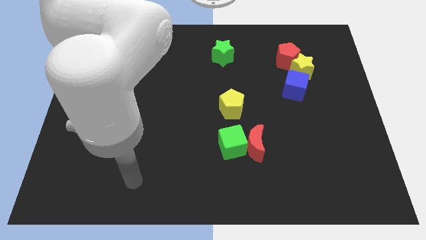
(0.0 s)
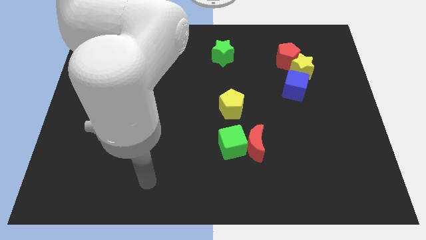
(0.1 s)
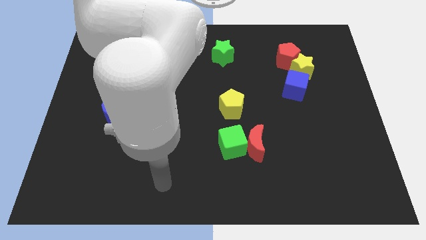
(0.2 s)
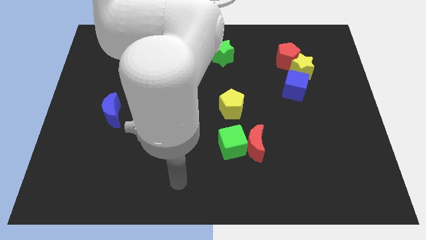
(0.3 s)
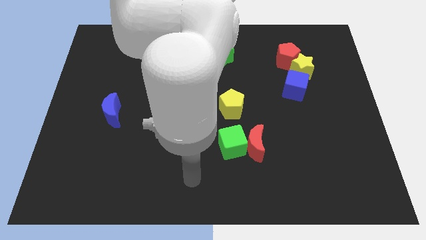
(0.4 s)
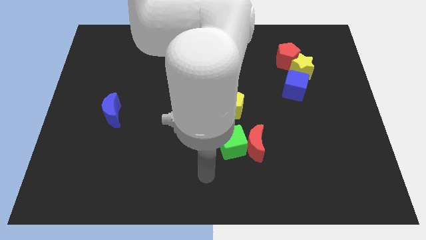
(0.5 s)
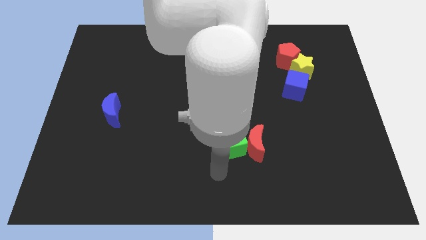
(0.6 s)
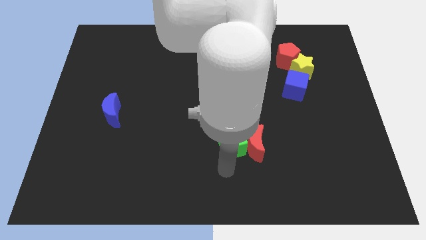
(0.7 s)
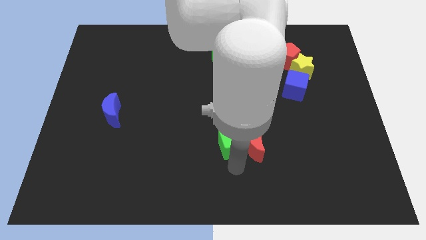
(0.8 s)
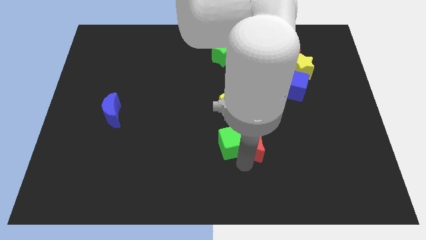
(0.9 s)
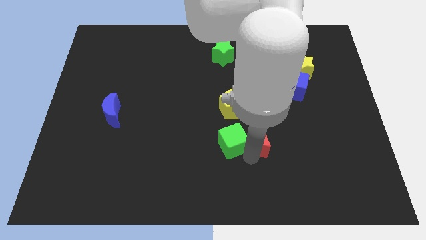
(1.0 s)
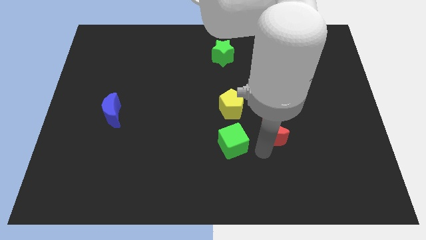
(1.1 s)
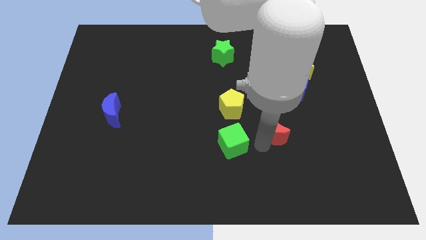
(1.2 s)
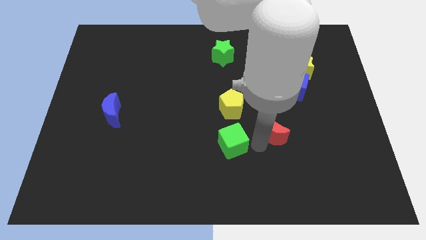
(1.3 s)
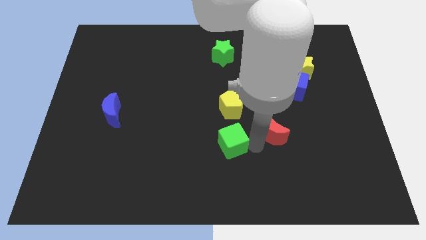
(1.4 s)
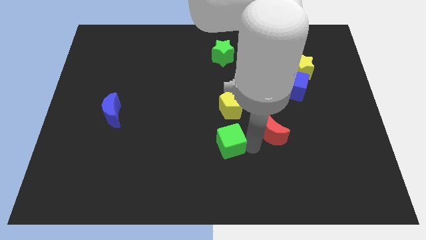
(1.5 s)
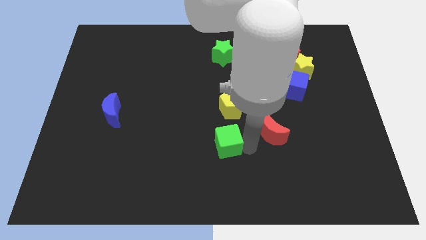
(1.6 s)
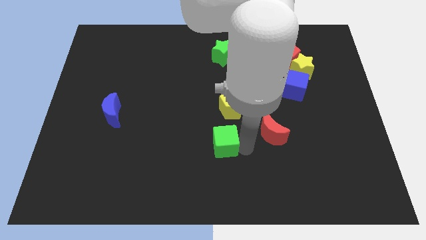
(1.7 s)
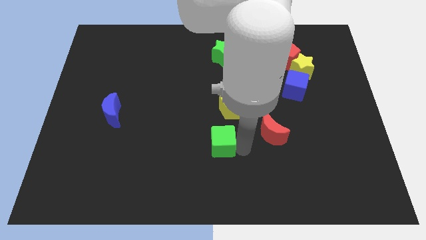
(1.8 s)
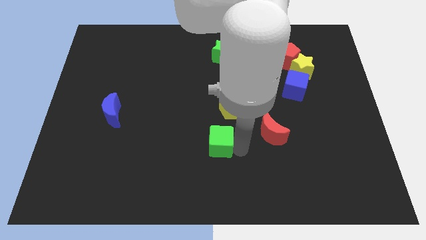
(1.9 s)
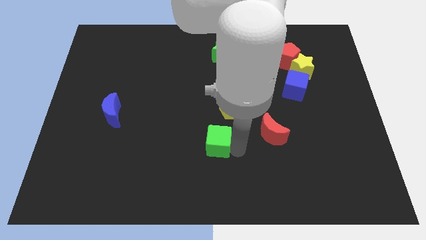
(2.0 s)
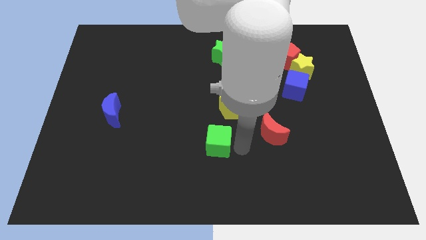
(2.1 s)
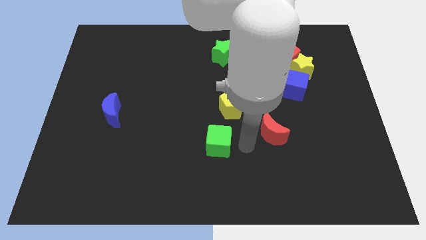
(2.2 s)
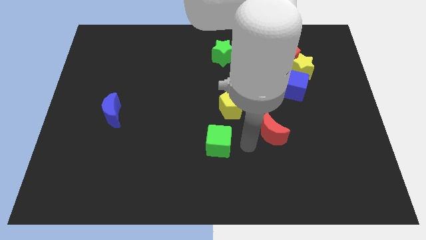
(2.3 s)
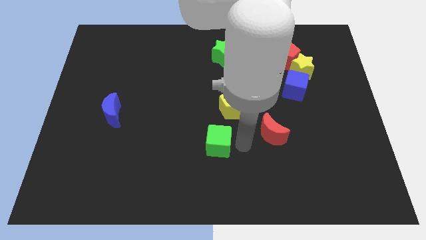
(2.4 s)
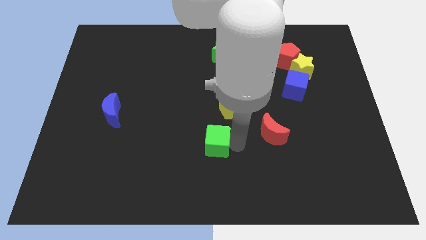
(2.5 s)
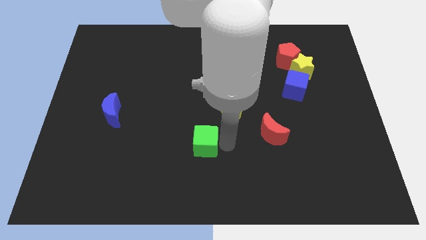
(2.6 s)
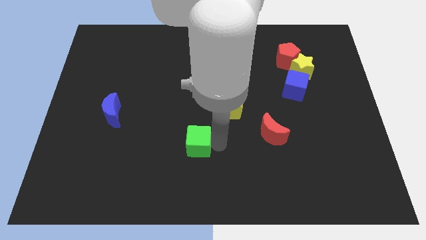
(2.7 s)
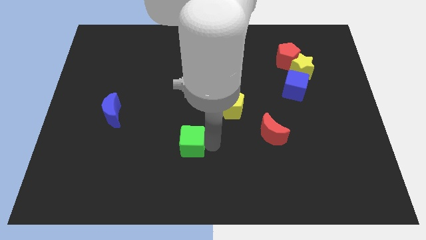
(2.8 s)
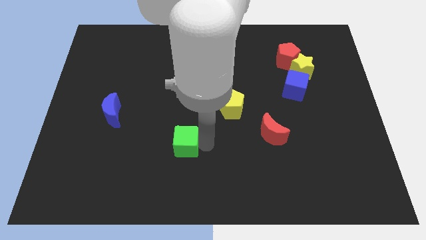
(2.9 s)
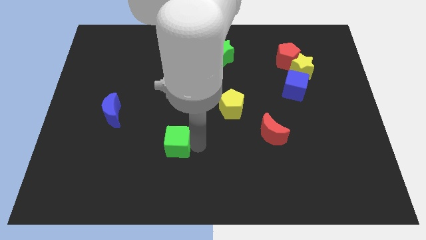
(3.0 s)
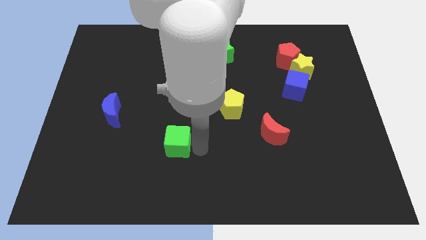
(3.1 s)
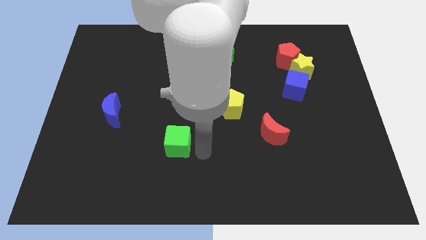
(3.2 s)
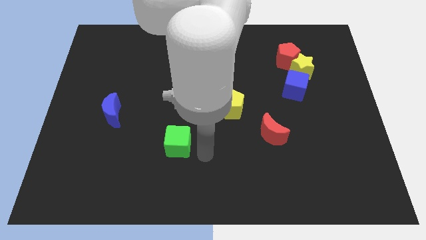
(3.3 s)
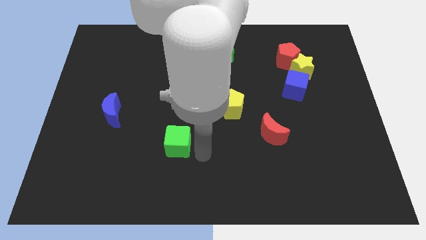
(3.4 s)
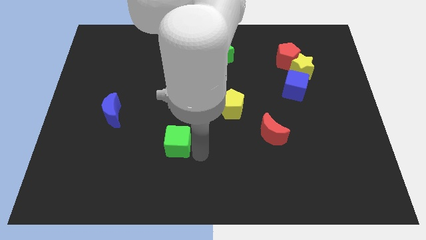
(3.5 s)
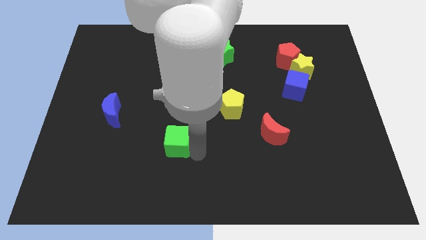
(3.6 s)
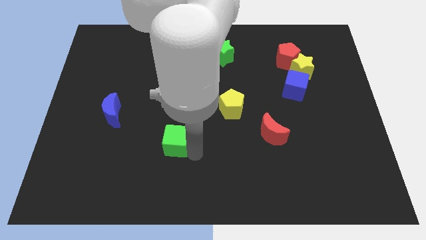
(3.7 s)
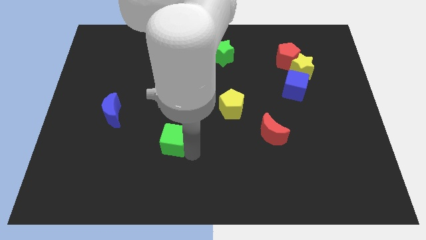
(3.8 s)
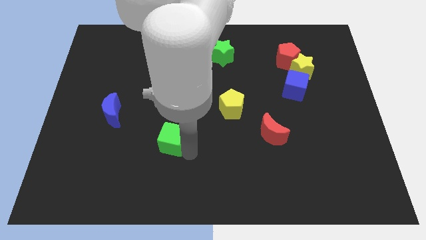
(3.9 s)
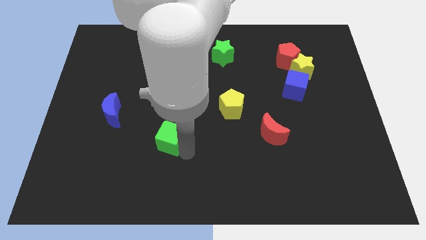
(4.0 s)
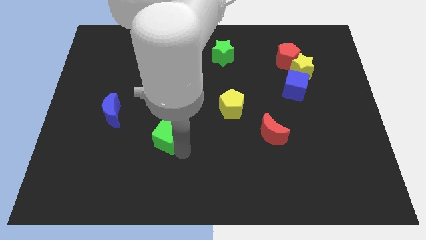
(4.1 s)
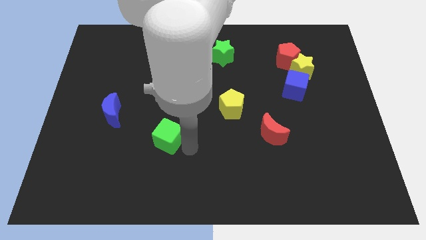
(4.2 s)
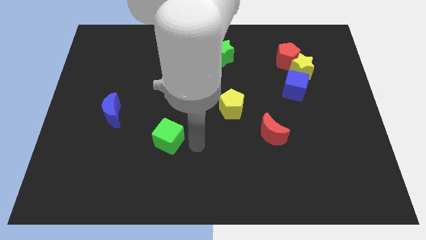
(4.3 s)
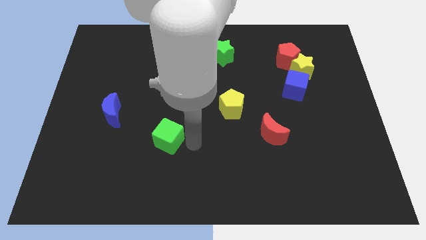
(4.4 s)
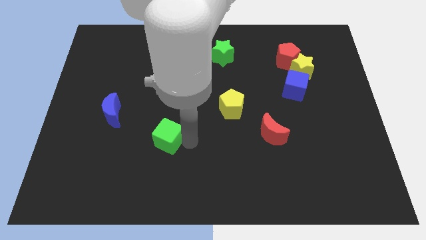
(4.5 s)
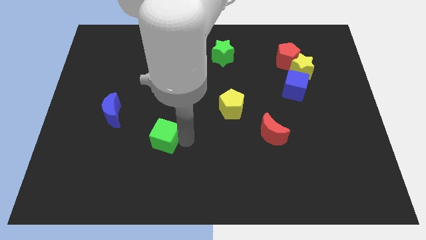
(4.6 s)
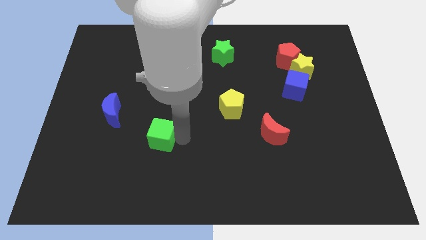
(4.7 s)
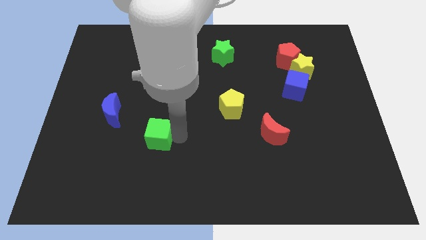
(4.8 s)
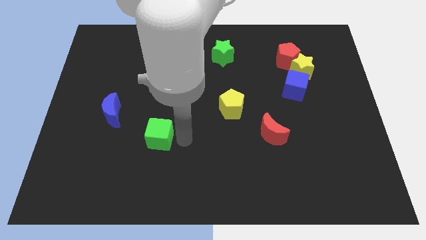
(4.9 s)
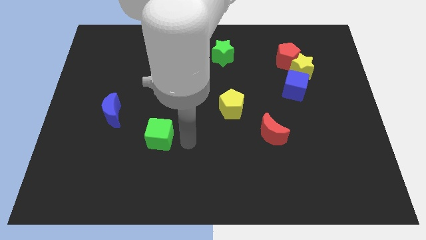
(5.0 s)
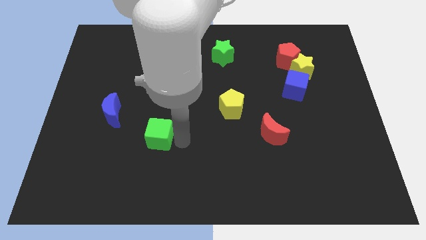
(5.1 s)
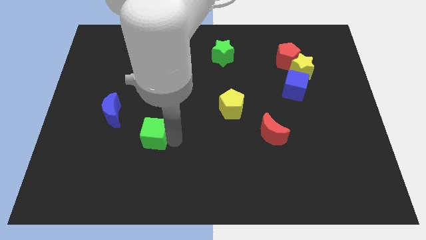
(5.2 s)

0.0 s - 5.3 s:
slide the green cube to the bottom right of the blue moon

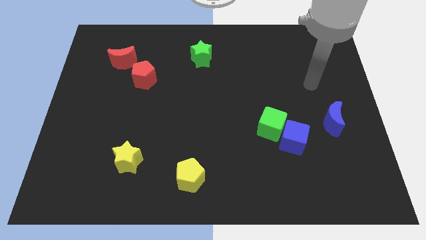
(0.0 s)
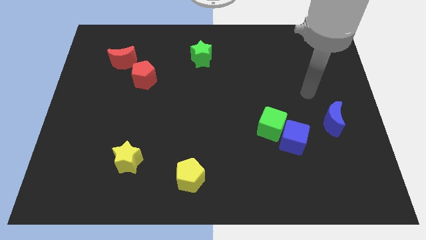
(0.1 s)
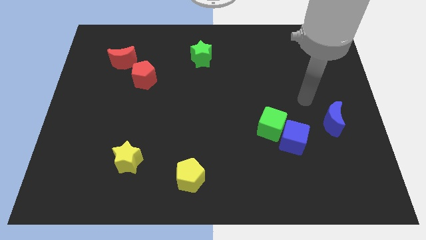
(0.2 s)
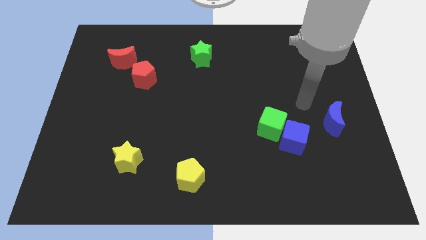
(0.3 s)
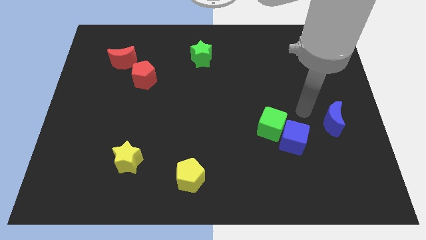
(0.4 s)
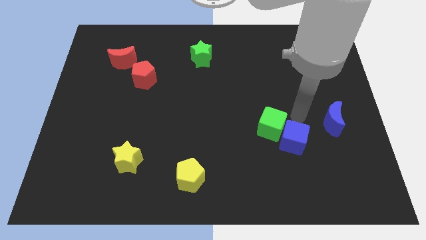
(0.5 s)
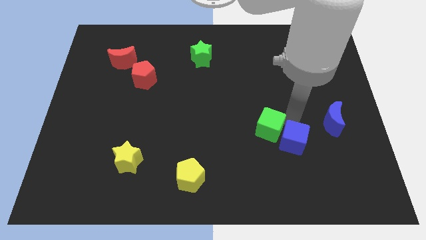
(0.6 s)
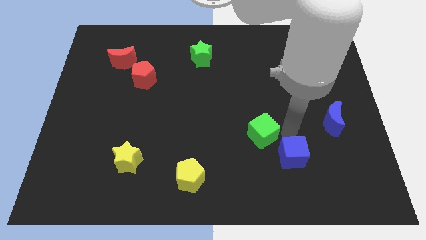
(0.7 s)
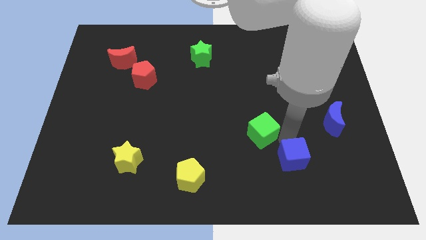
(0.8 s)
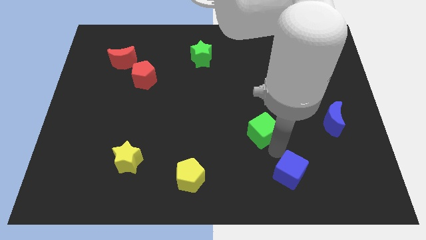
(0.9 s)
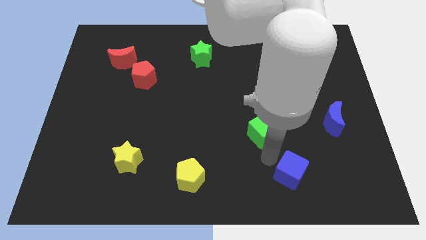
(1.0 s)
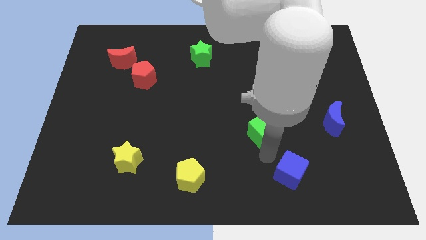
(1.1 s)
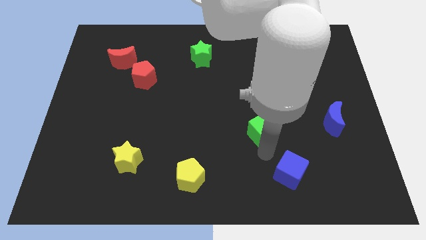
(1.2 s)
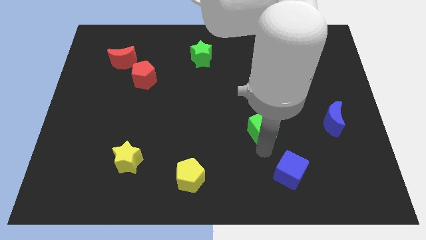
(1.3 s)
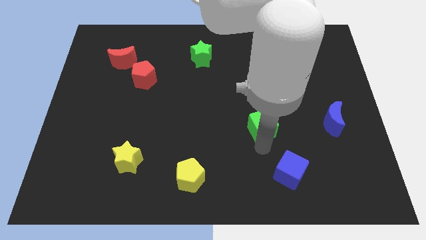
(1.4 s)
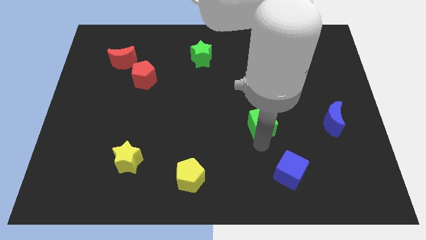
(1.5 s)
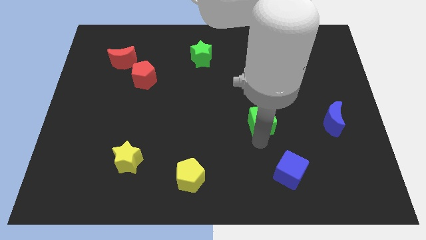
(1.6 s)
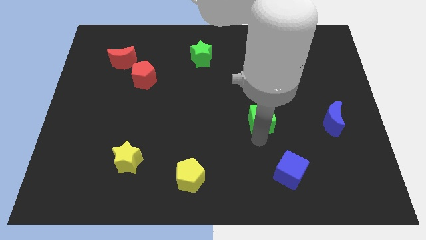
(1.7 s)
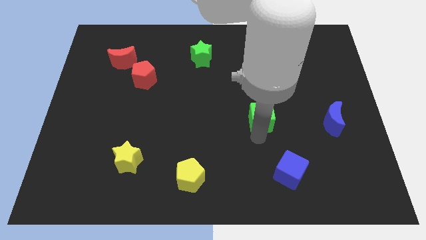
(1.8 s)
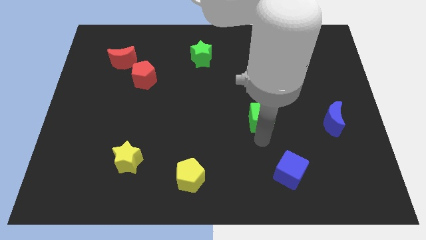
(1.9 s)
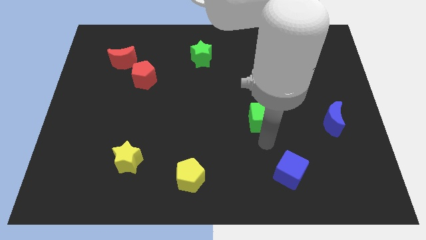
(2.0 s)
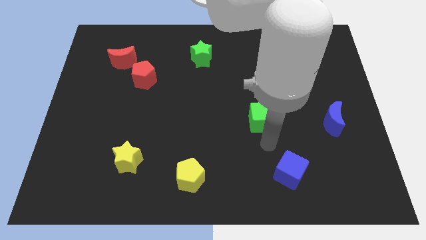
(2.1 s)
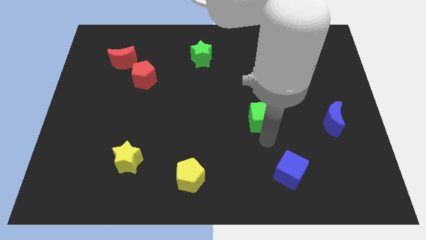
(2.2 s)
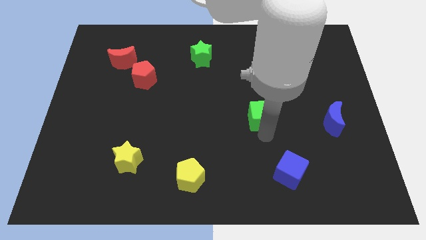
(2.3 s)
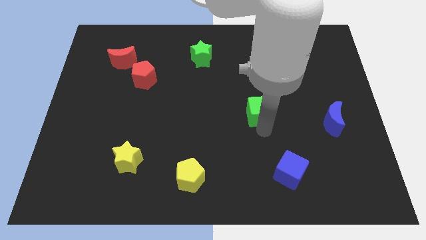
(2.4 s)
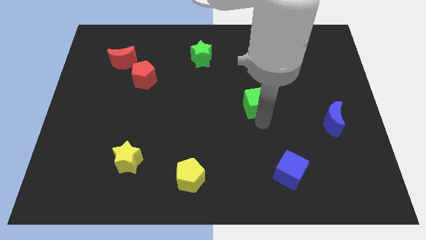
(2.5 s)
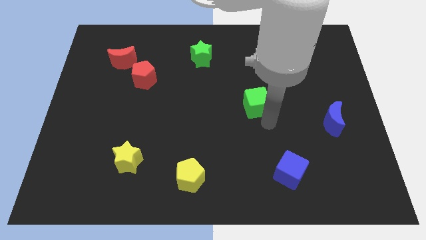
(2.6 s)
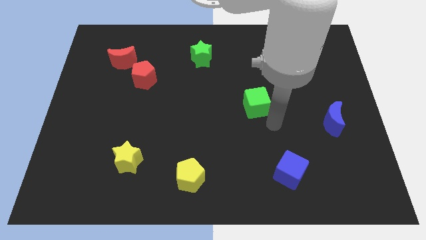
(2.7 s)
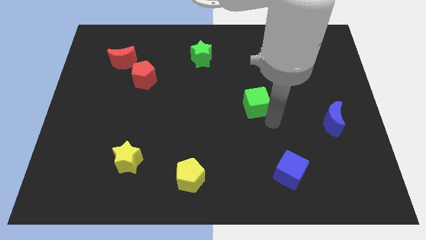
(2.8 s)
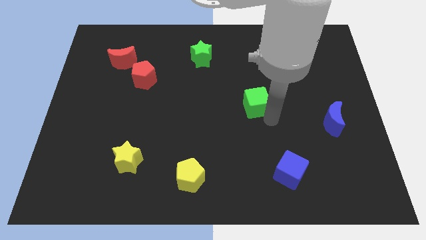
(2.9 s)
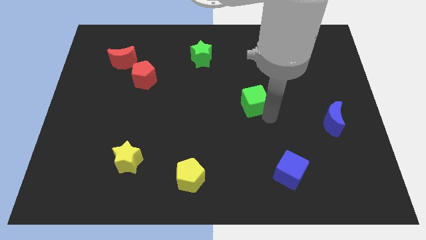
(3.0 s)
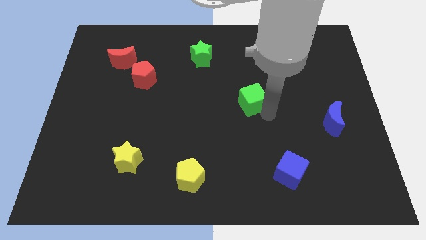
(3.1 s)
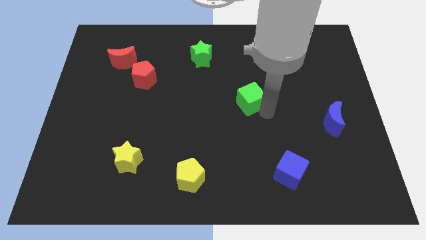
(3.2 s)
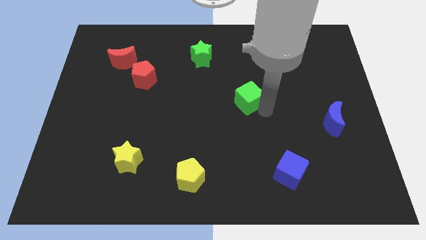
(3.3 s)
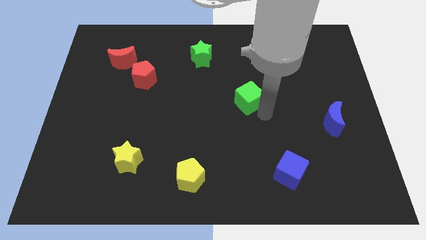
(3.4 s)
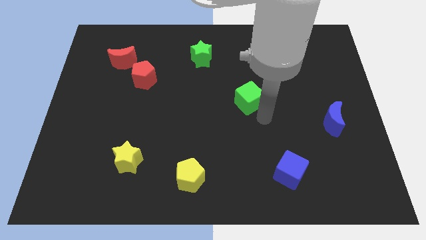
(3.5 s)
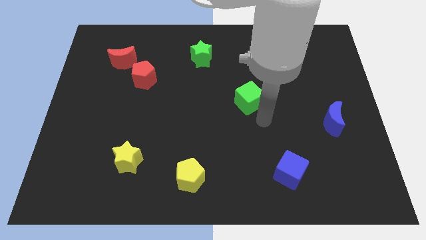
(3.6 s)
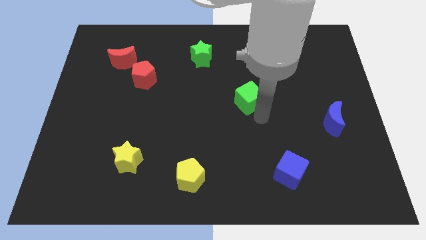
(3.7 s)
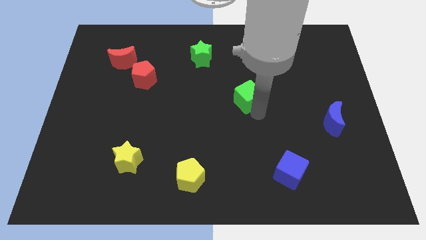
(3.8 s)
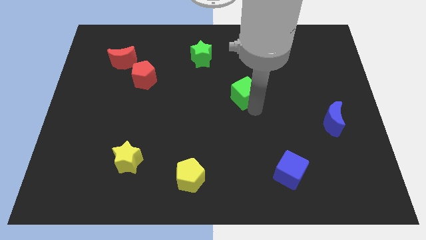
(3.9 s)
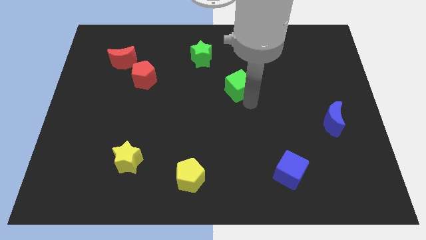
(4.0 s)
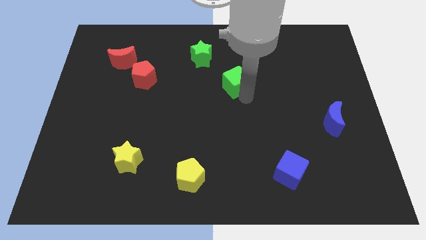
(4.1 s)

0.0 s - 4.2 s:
move the green cube to the bottom right side of the green star
